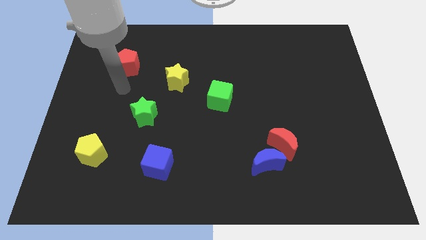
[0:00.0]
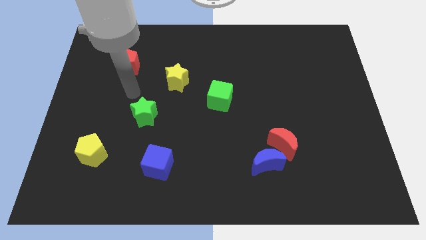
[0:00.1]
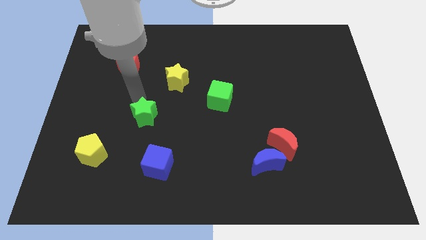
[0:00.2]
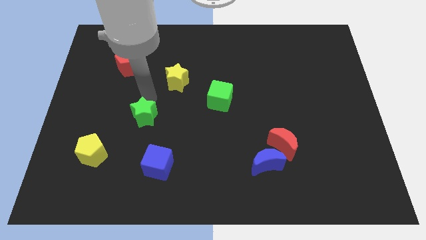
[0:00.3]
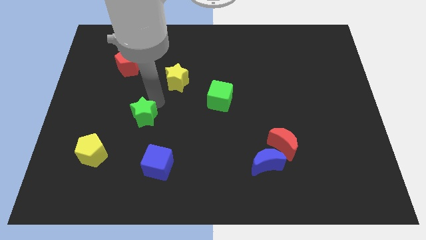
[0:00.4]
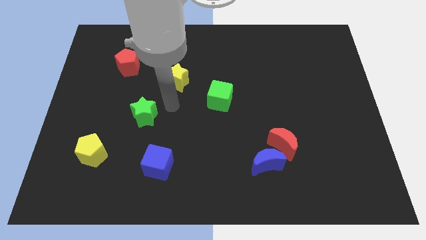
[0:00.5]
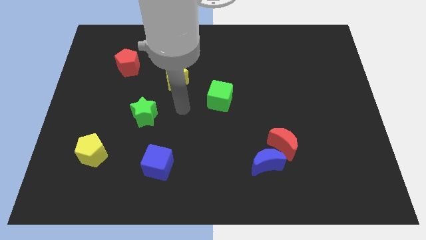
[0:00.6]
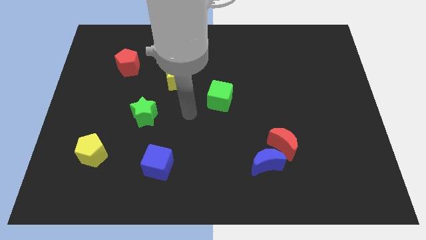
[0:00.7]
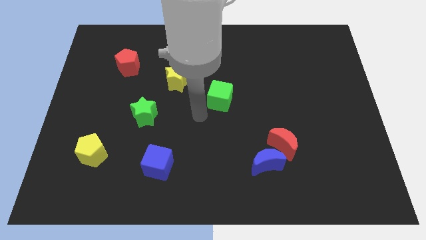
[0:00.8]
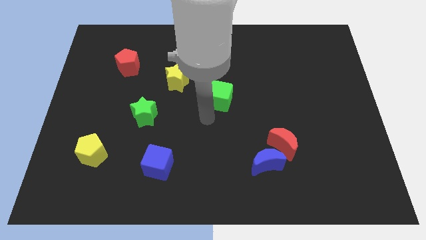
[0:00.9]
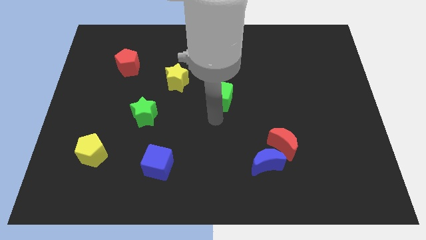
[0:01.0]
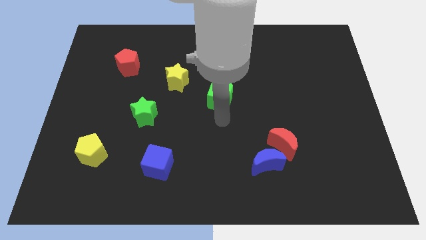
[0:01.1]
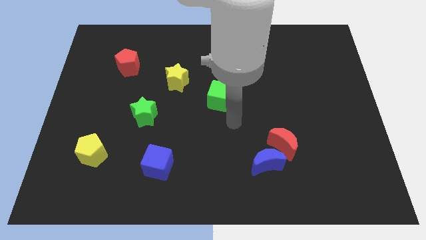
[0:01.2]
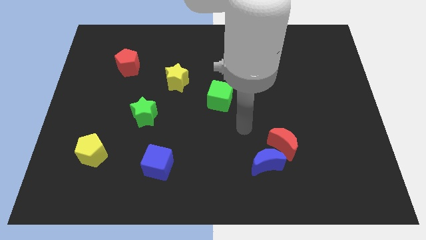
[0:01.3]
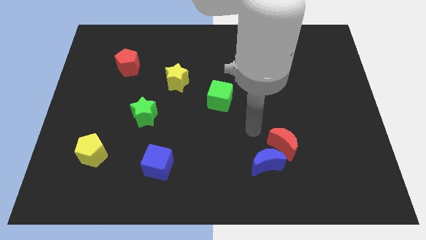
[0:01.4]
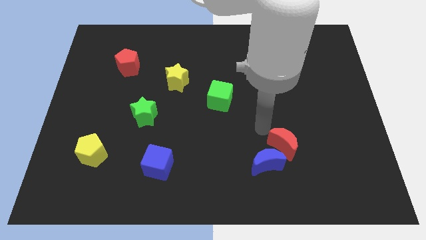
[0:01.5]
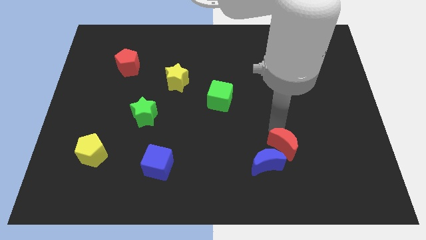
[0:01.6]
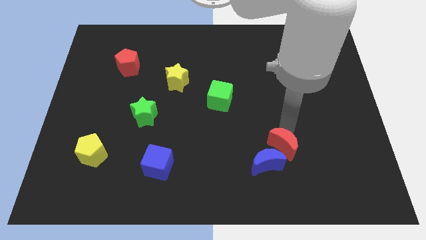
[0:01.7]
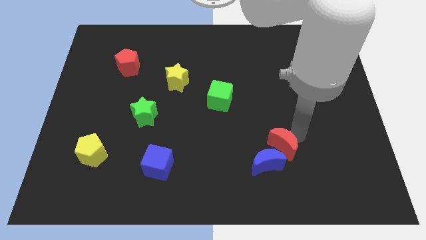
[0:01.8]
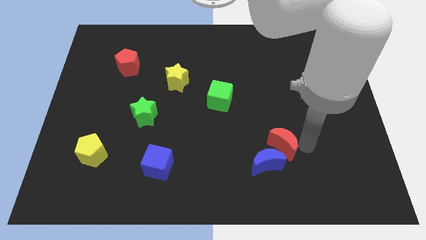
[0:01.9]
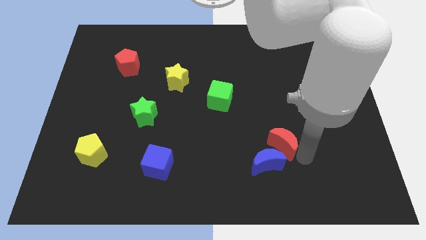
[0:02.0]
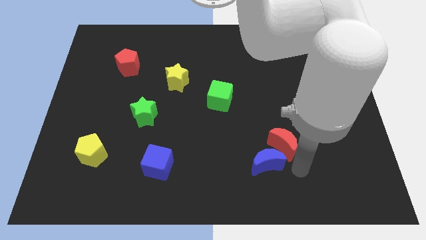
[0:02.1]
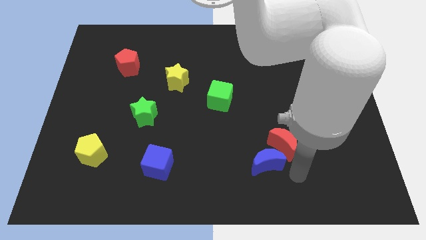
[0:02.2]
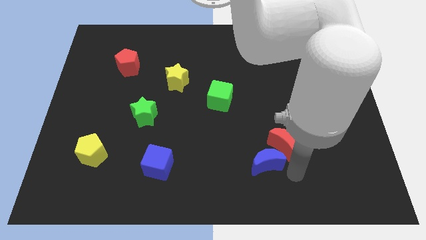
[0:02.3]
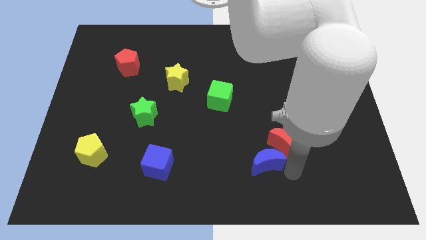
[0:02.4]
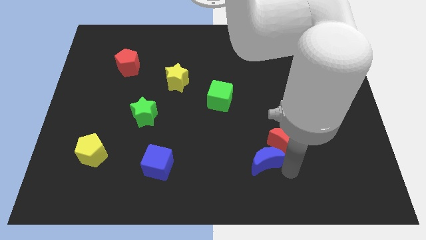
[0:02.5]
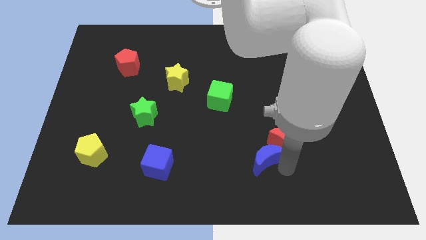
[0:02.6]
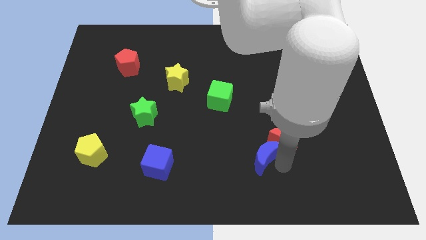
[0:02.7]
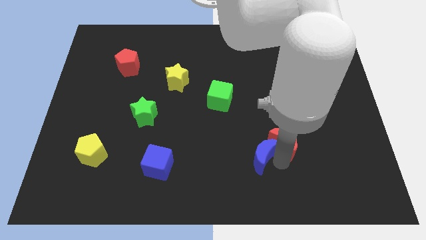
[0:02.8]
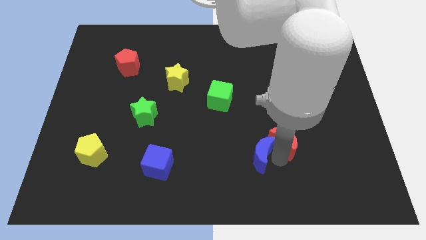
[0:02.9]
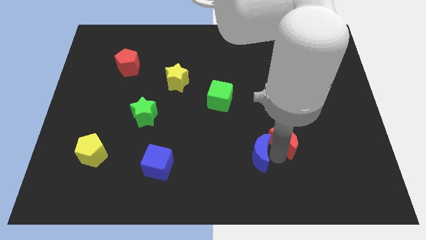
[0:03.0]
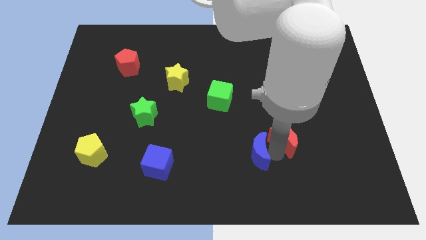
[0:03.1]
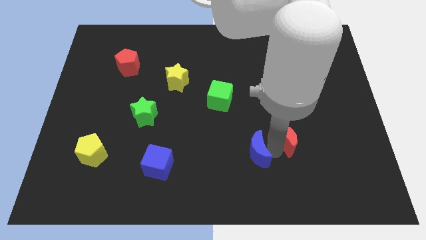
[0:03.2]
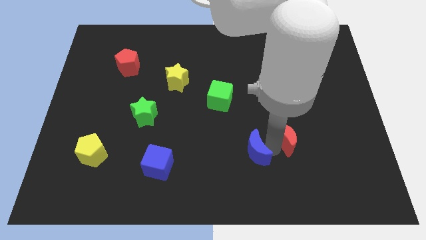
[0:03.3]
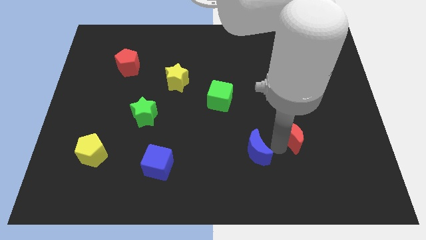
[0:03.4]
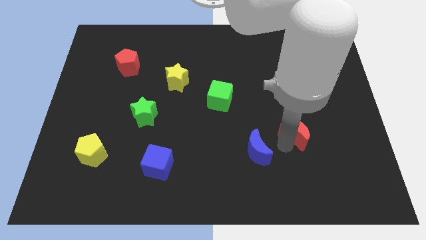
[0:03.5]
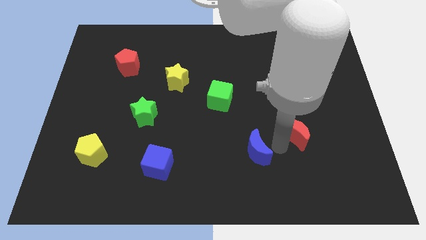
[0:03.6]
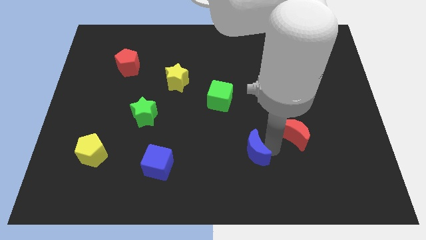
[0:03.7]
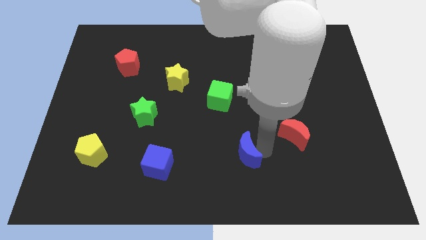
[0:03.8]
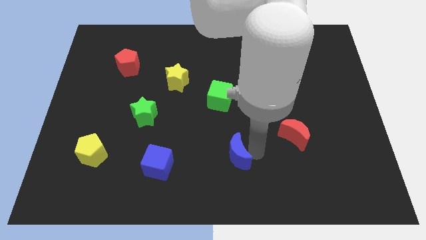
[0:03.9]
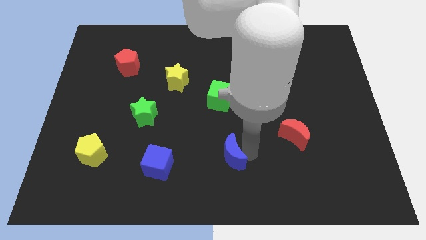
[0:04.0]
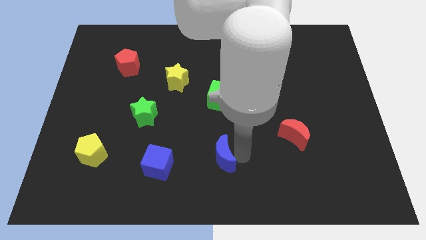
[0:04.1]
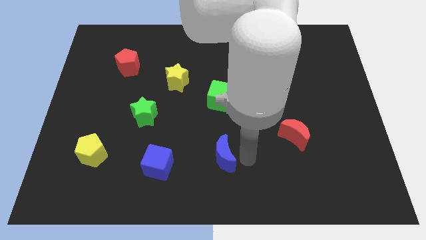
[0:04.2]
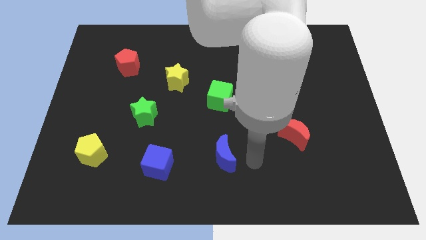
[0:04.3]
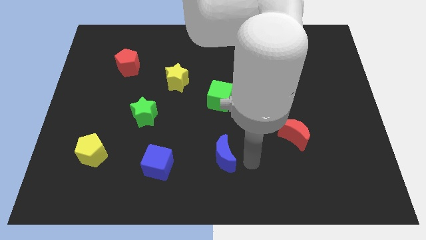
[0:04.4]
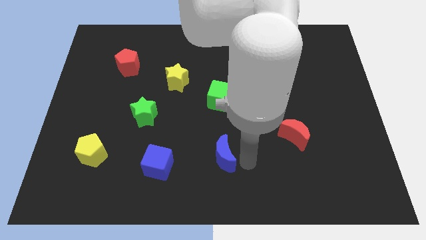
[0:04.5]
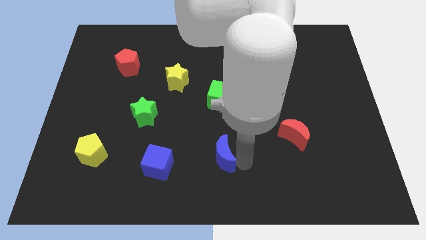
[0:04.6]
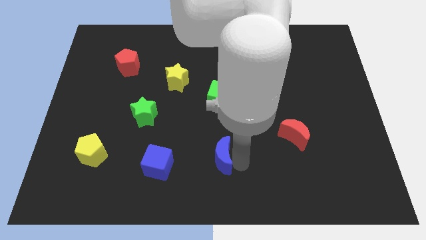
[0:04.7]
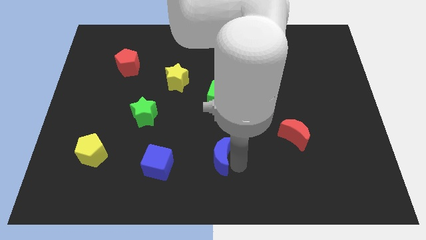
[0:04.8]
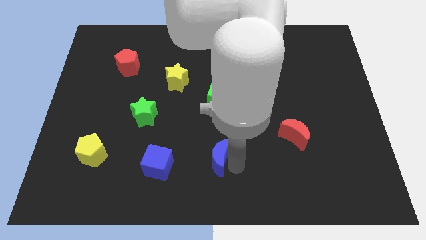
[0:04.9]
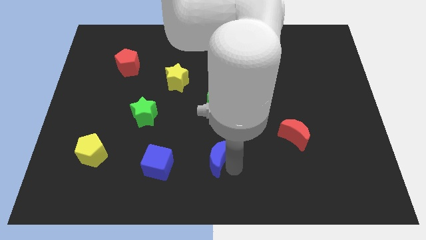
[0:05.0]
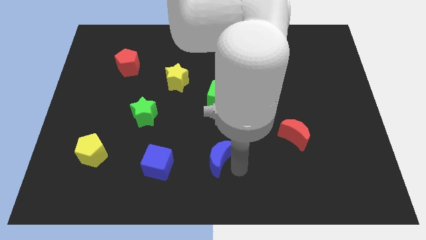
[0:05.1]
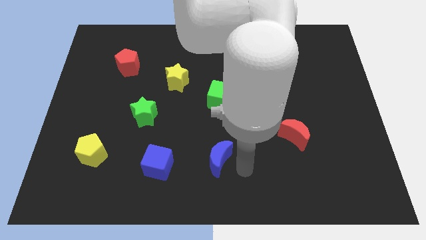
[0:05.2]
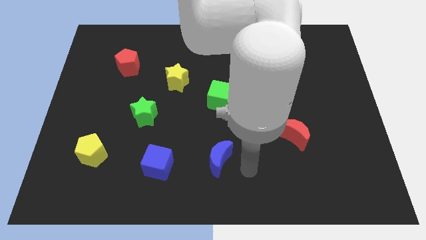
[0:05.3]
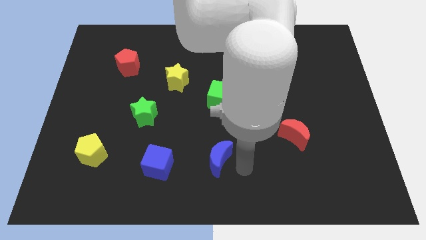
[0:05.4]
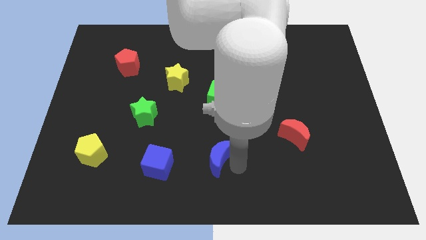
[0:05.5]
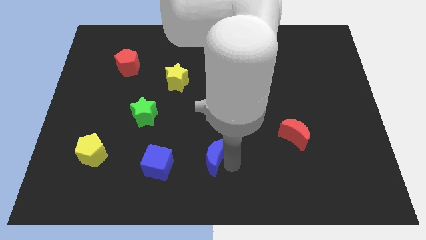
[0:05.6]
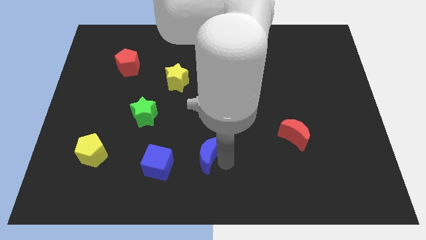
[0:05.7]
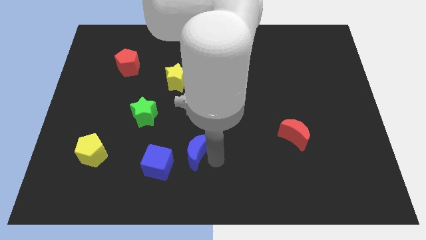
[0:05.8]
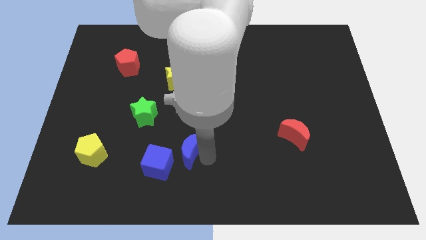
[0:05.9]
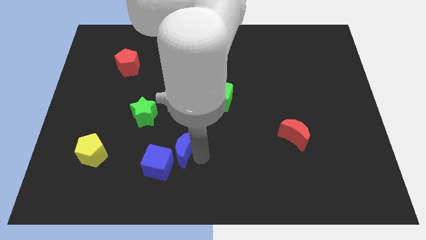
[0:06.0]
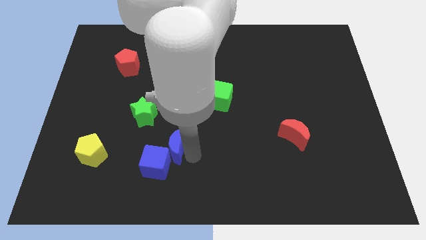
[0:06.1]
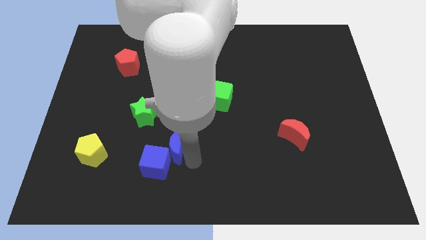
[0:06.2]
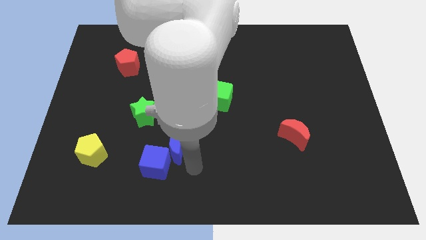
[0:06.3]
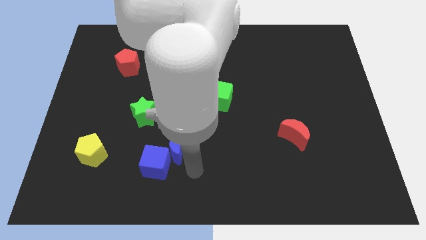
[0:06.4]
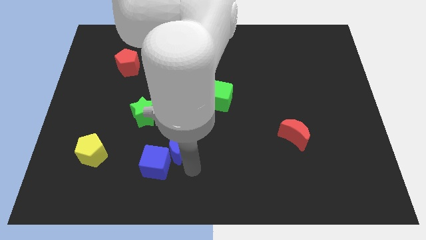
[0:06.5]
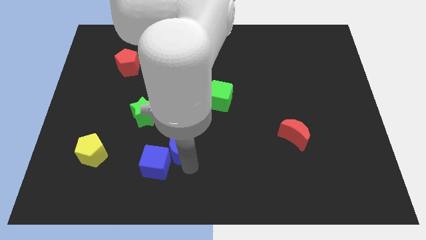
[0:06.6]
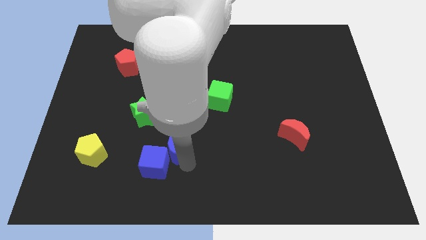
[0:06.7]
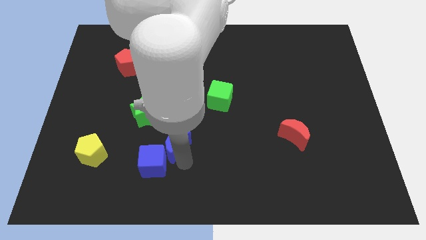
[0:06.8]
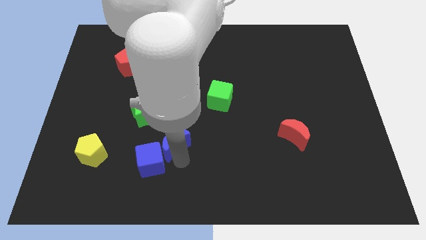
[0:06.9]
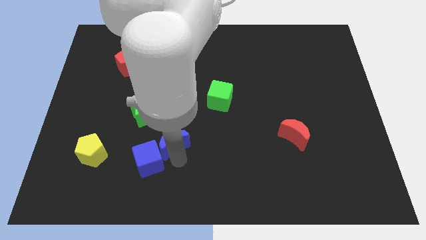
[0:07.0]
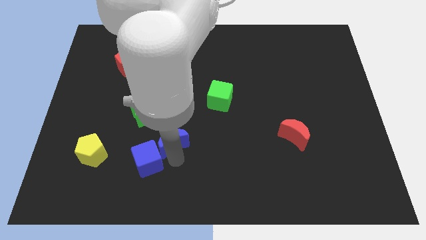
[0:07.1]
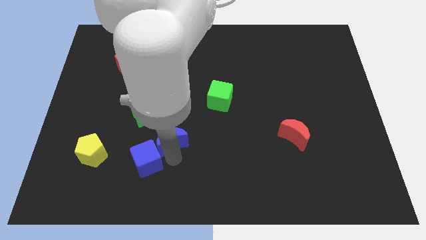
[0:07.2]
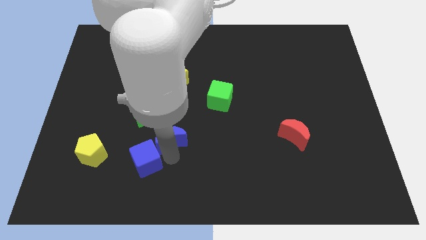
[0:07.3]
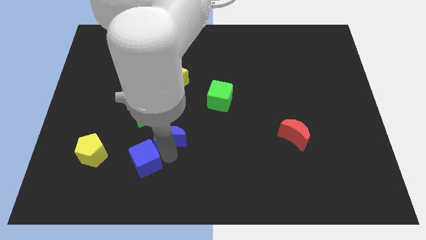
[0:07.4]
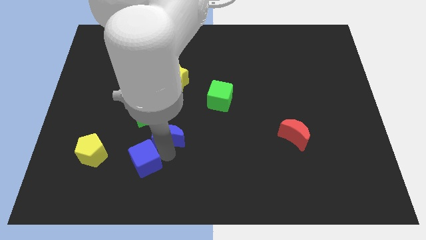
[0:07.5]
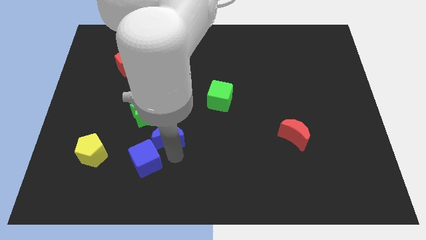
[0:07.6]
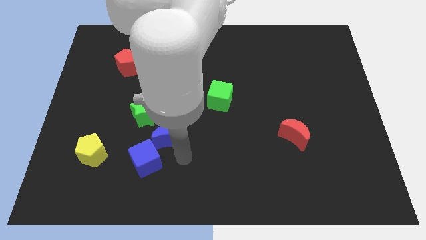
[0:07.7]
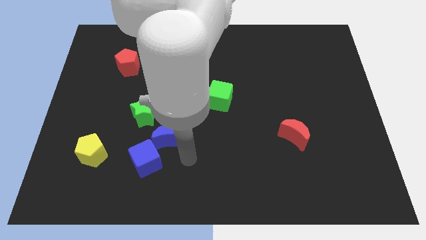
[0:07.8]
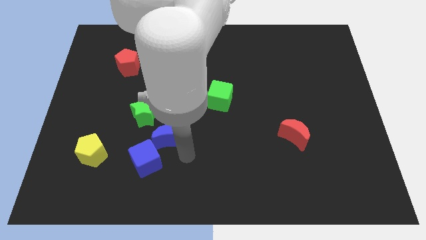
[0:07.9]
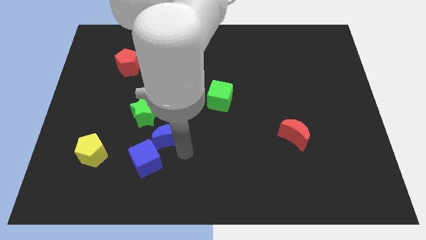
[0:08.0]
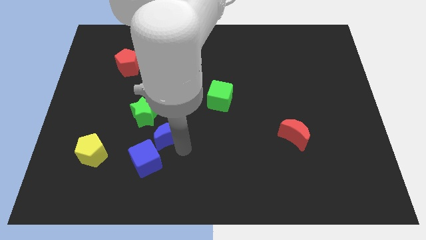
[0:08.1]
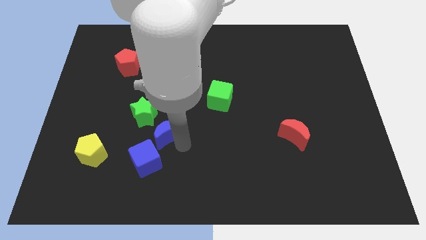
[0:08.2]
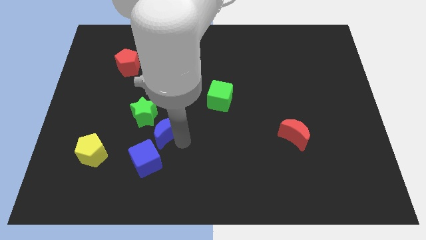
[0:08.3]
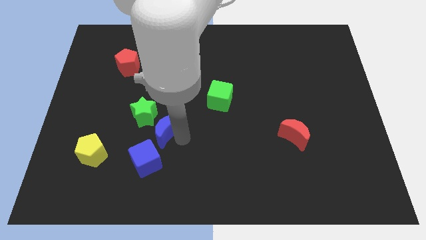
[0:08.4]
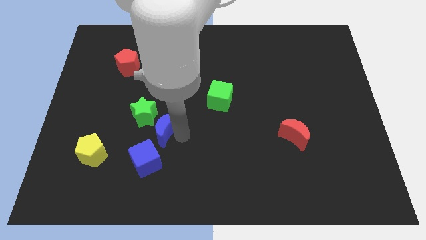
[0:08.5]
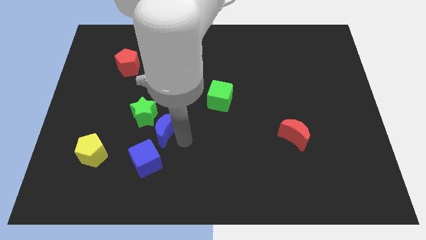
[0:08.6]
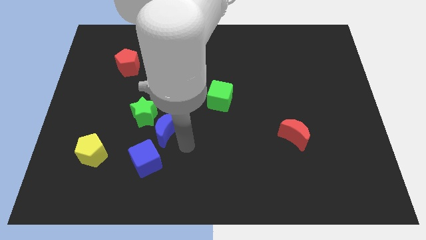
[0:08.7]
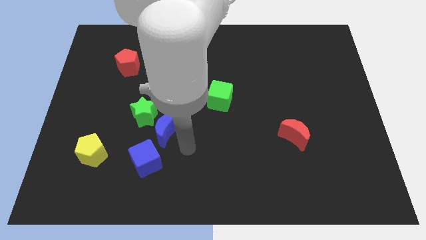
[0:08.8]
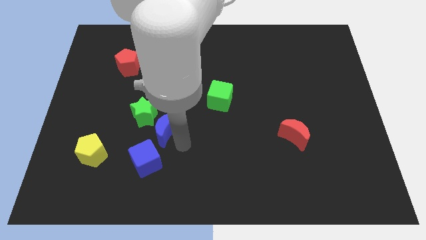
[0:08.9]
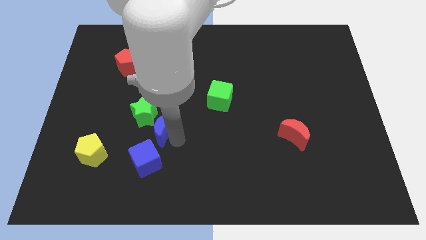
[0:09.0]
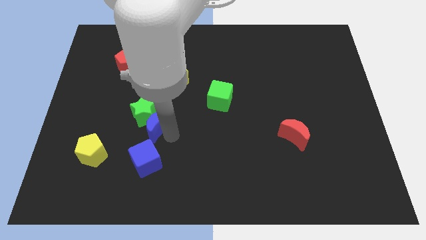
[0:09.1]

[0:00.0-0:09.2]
move the blue moon next to the green star
